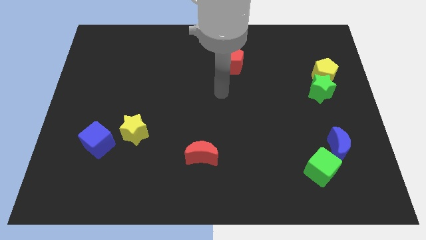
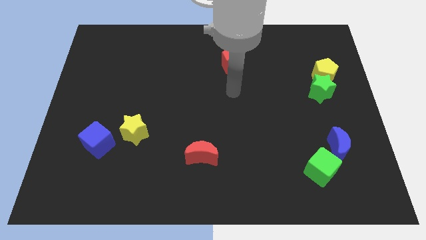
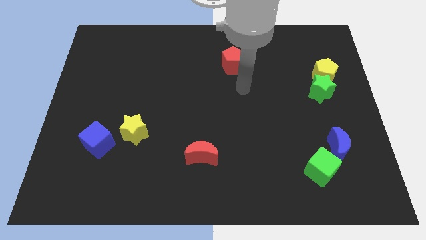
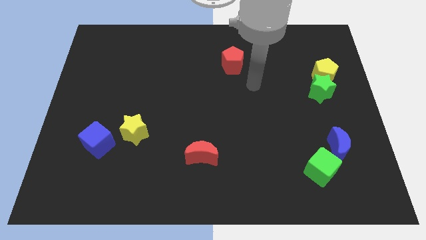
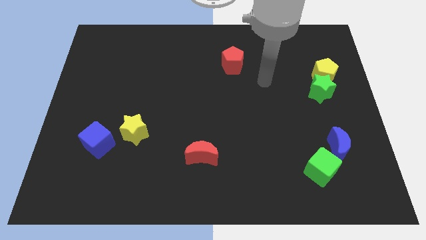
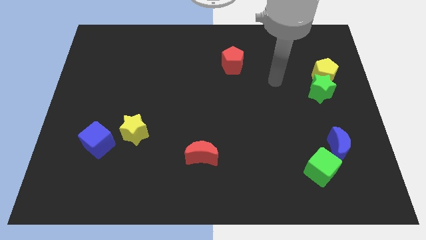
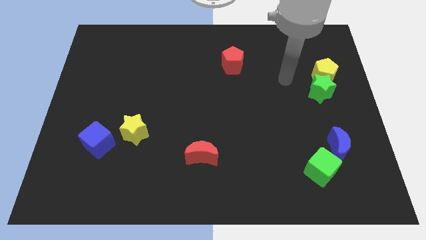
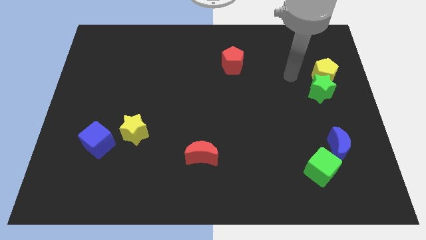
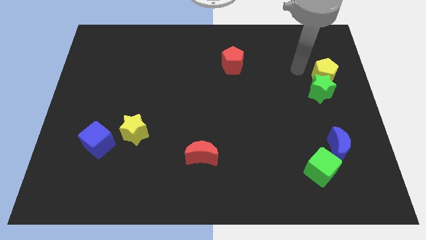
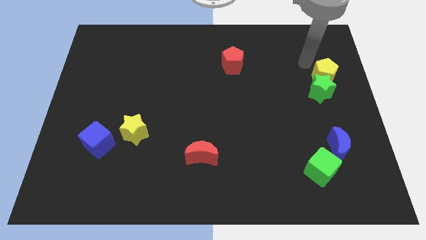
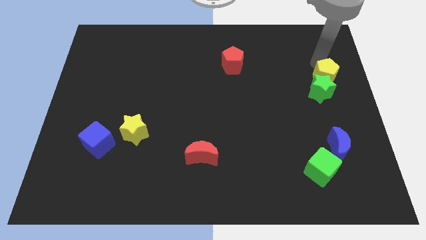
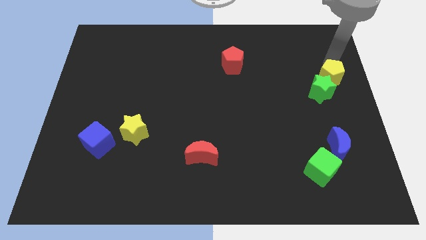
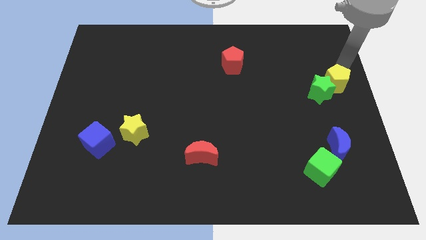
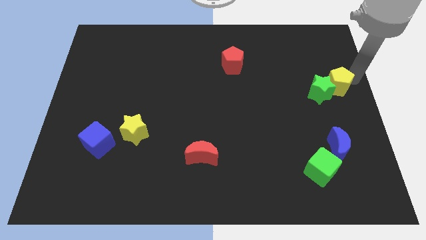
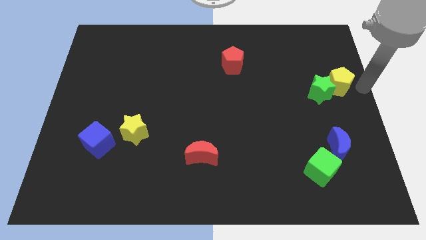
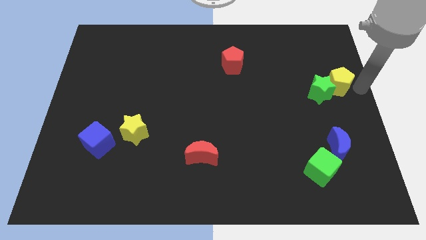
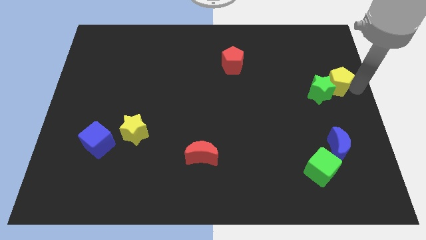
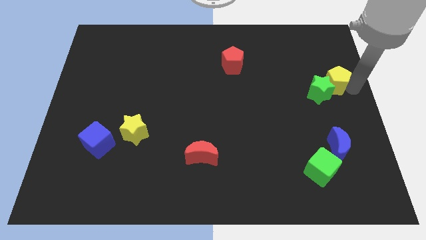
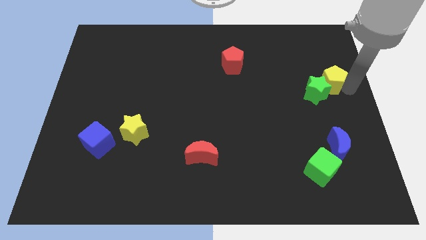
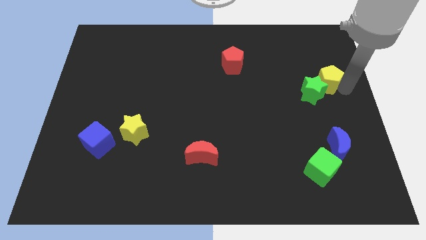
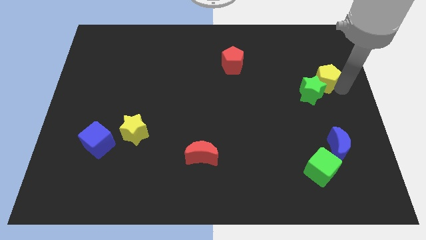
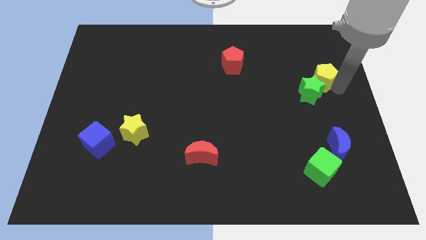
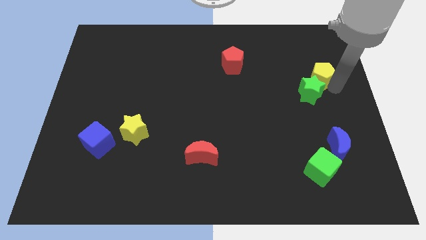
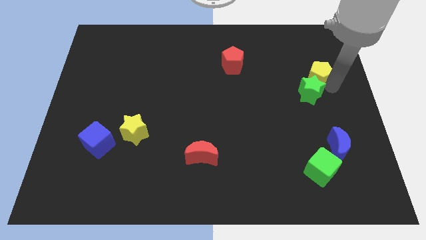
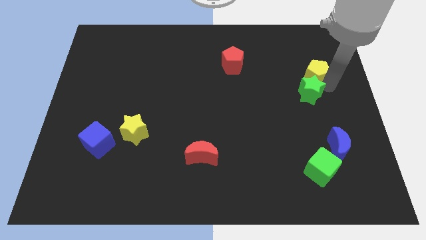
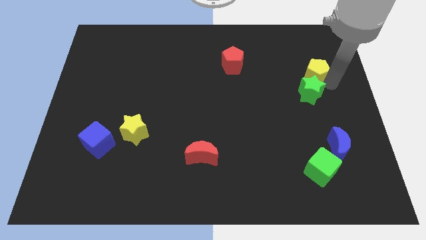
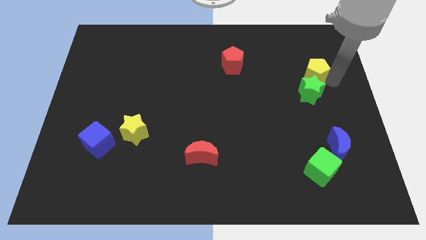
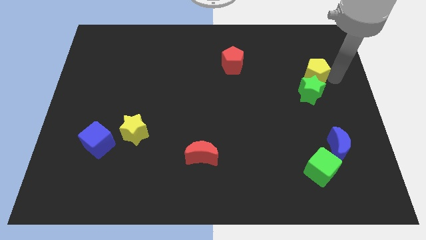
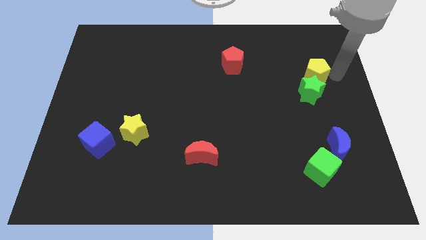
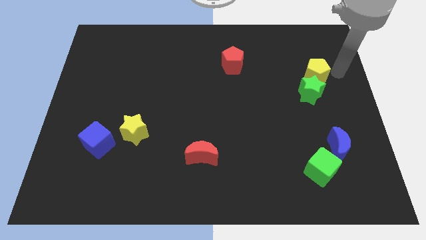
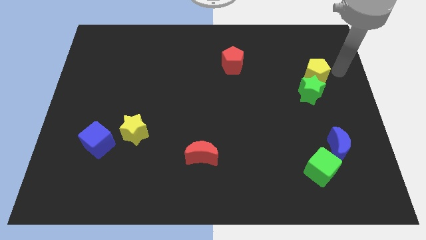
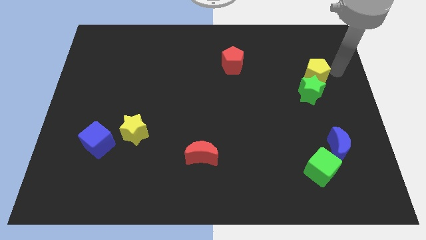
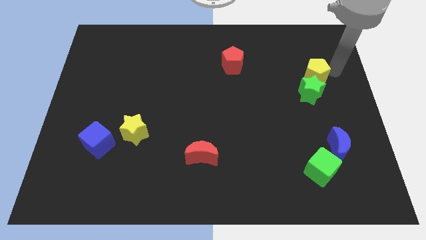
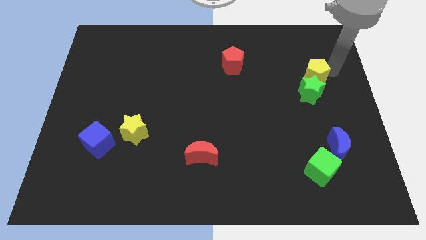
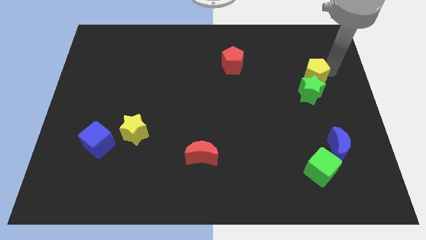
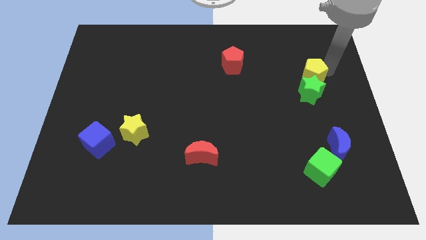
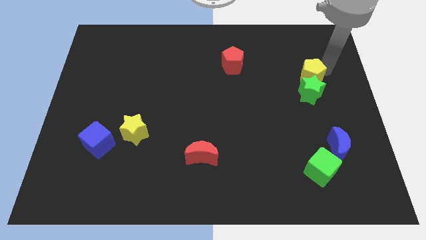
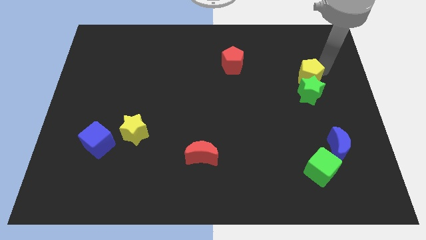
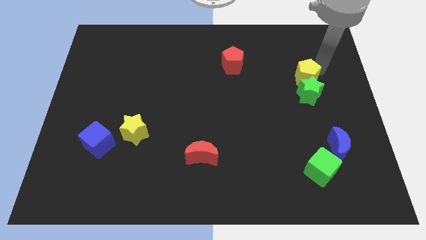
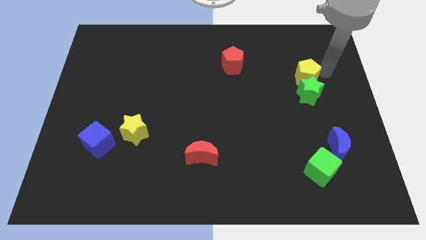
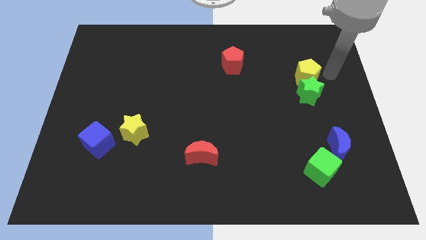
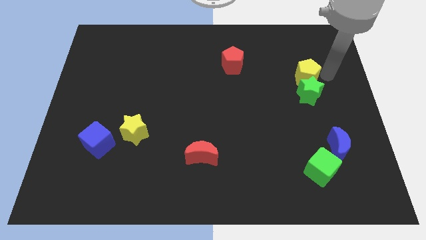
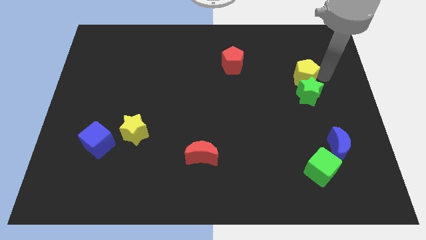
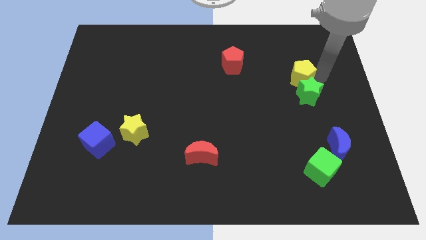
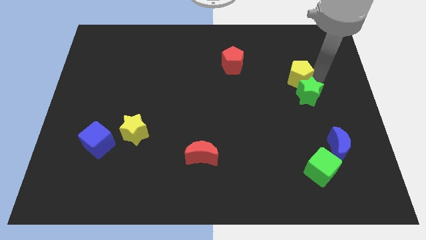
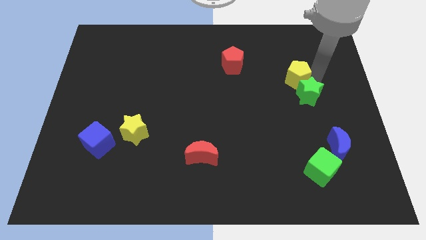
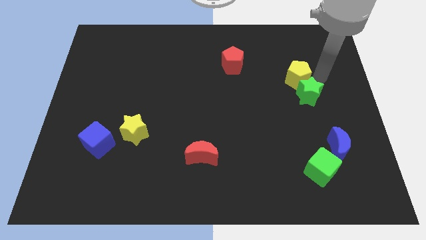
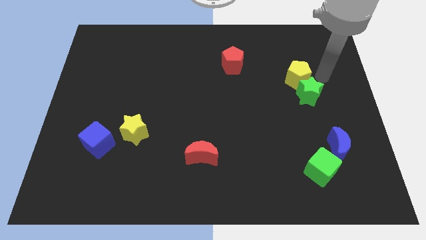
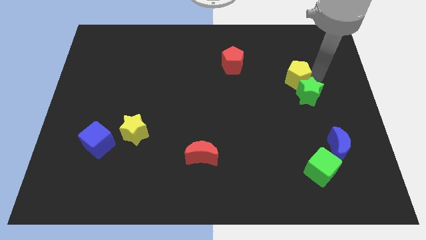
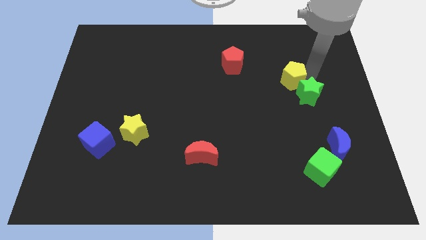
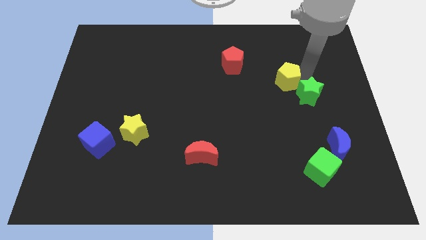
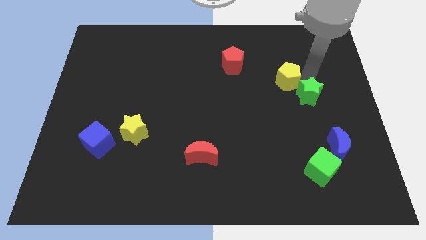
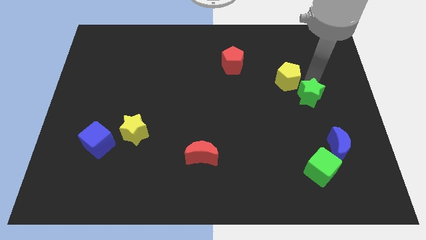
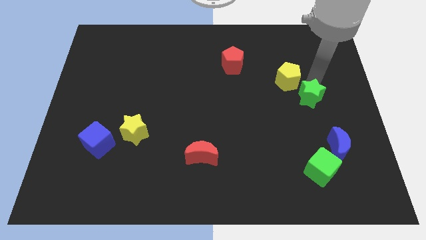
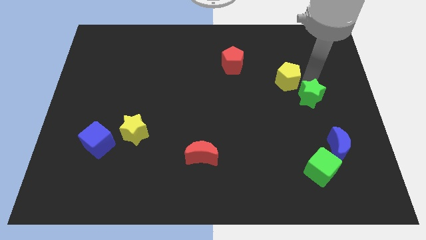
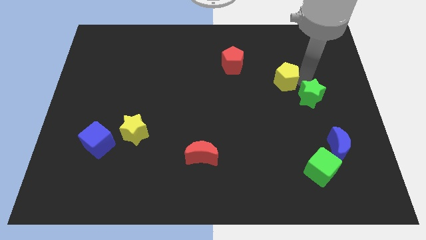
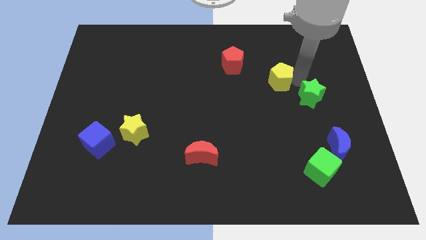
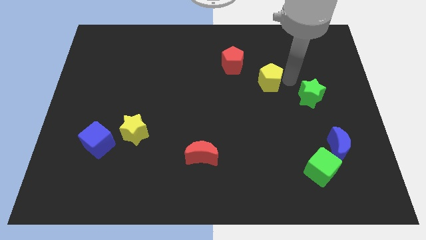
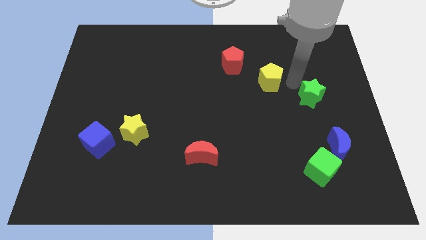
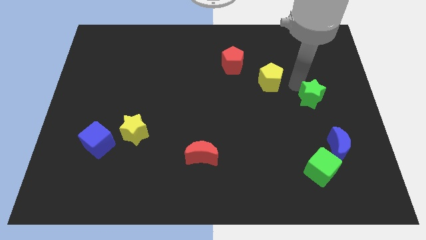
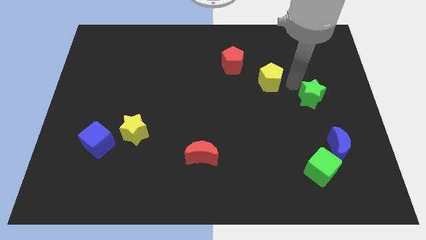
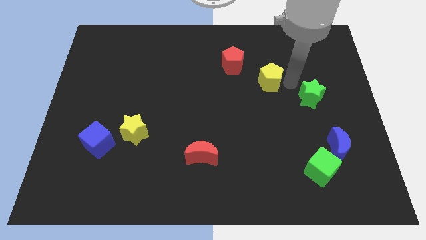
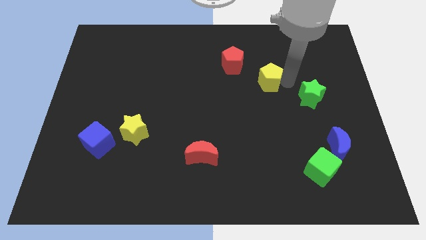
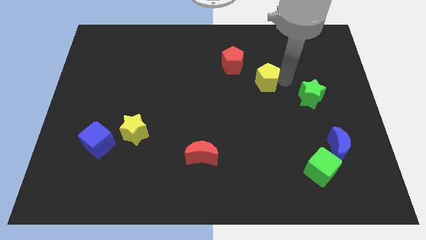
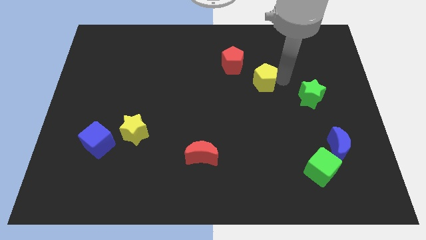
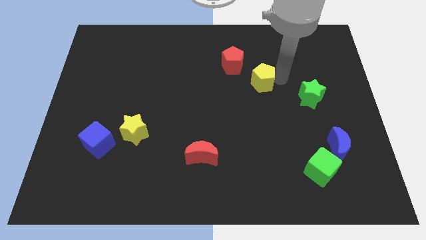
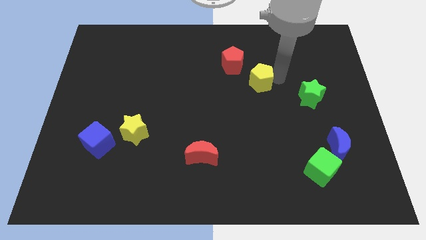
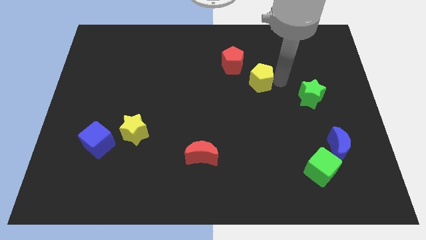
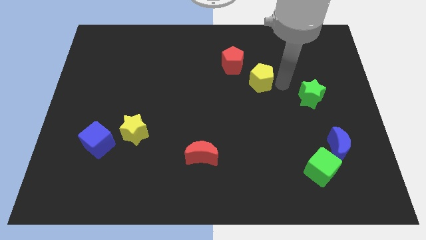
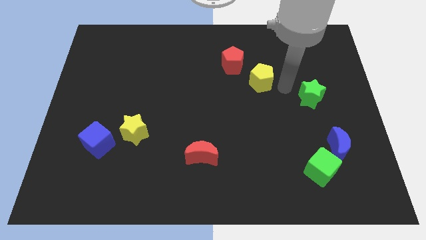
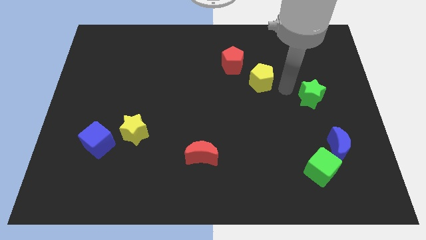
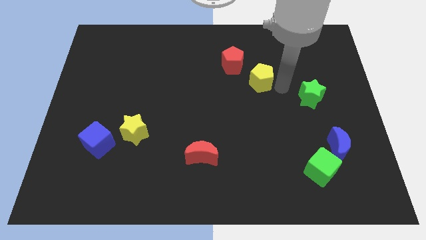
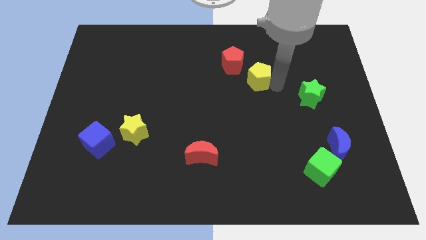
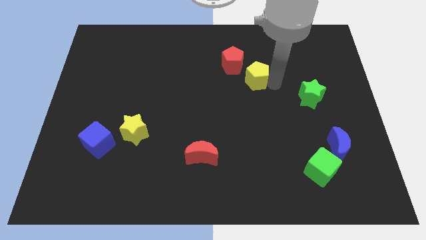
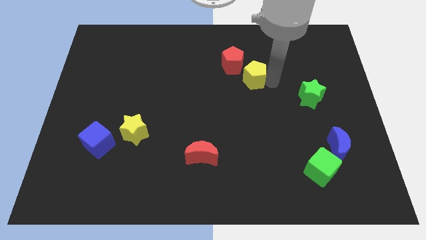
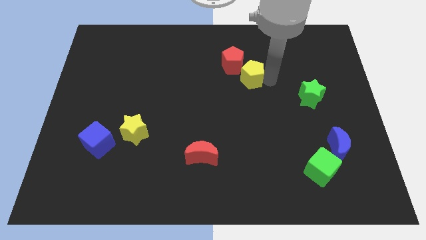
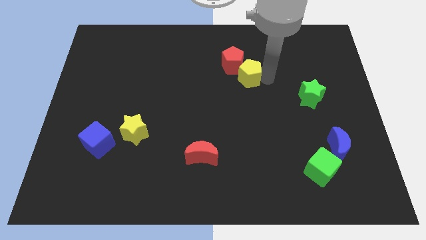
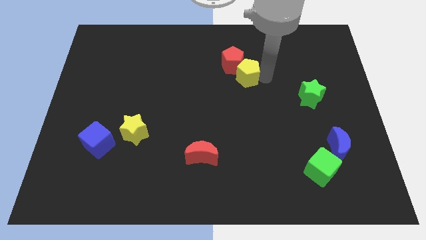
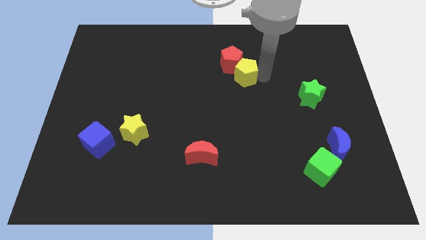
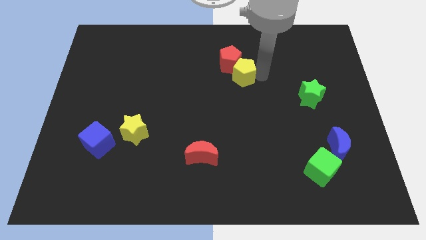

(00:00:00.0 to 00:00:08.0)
push the yellow pentagon to the left

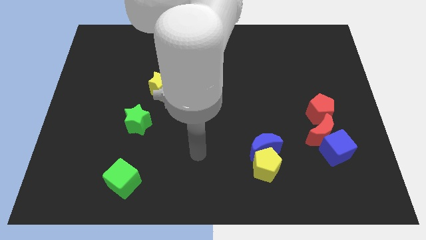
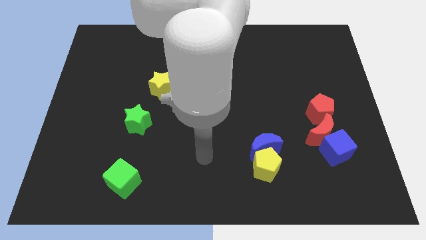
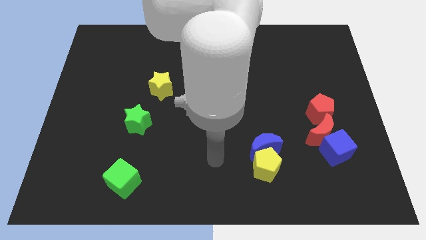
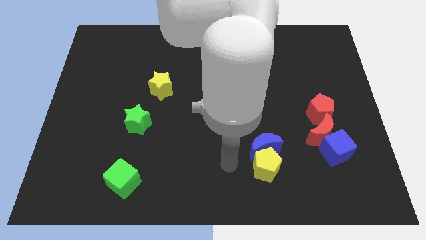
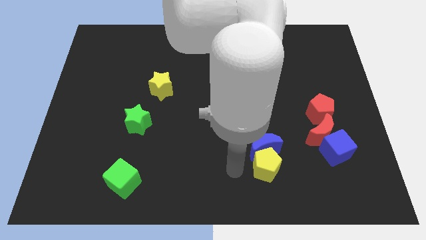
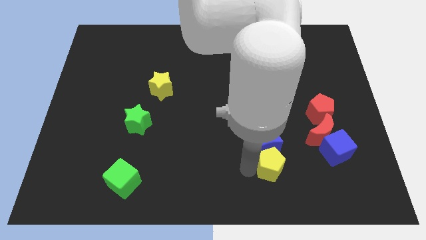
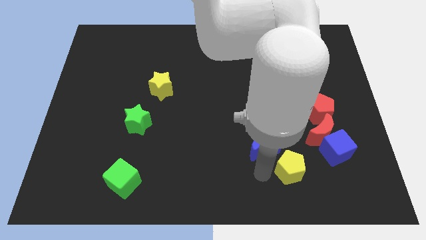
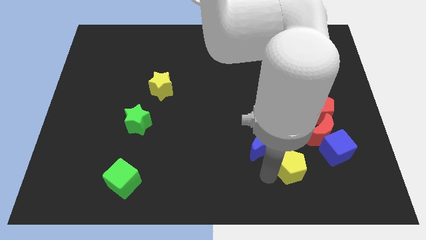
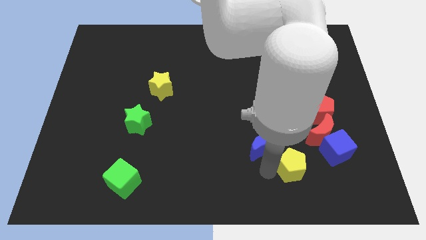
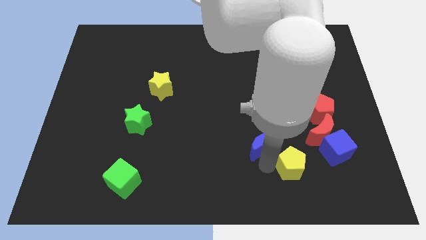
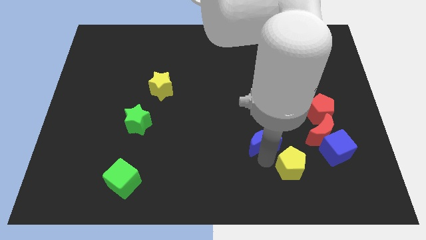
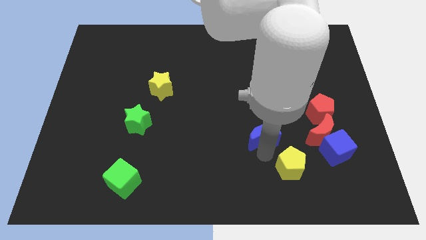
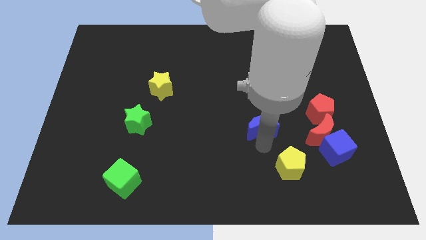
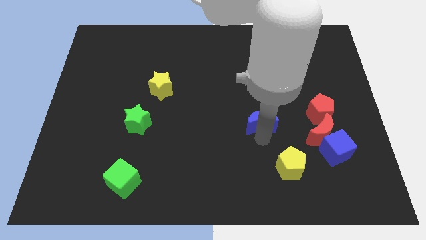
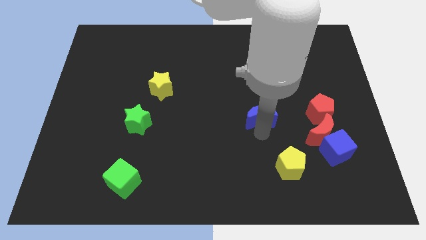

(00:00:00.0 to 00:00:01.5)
push the blue moon a bit upwards
